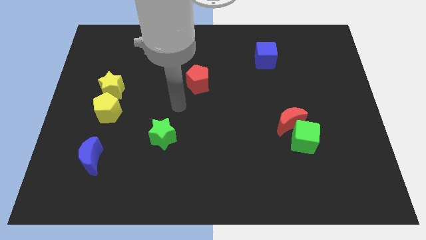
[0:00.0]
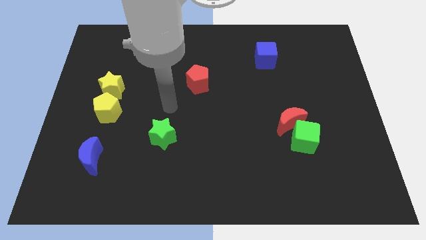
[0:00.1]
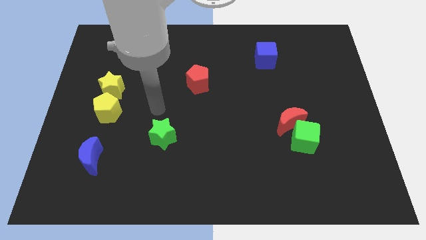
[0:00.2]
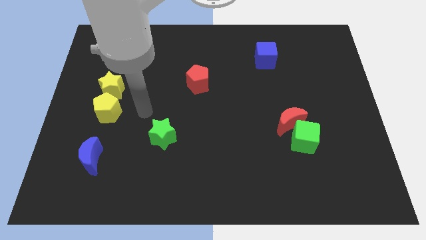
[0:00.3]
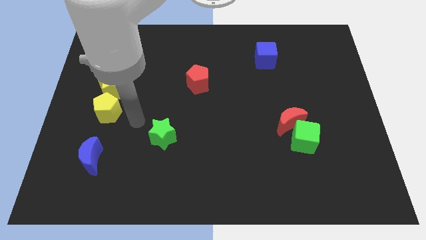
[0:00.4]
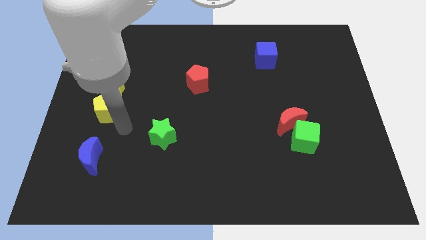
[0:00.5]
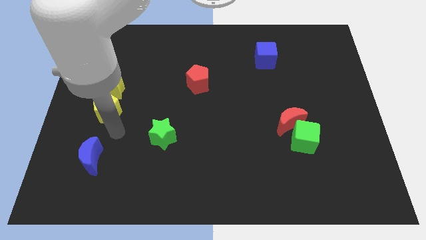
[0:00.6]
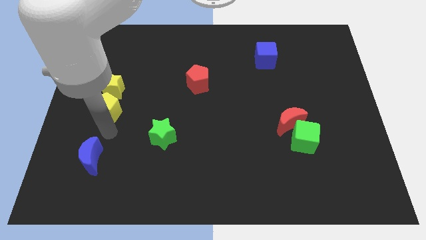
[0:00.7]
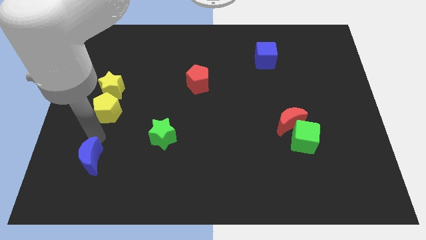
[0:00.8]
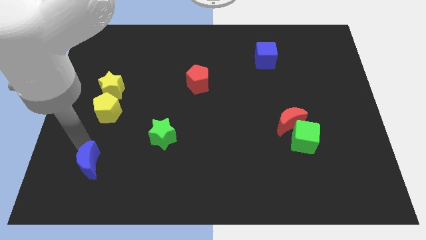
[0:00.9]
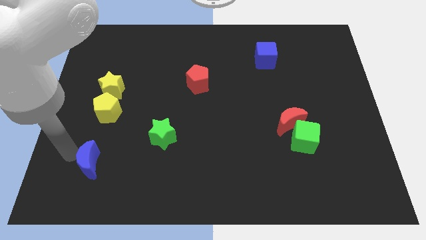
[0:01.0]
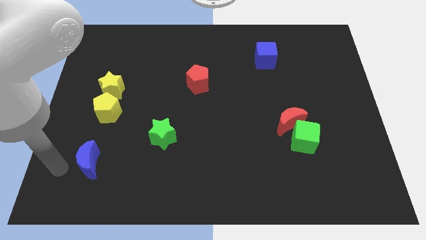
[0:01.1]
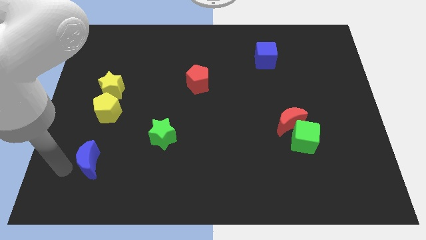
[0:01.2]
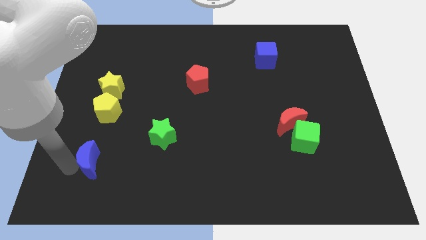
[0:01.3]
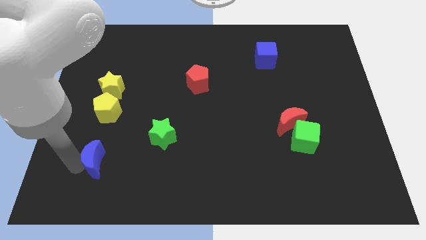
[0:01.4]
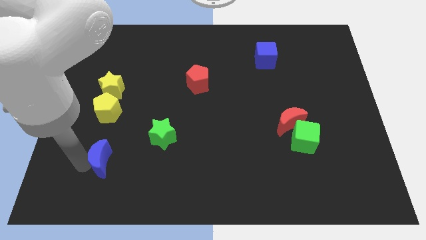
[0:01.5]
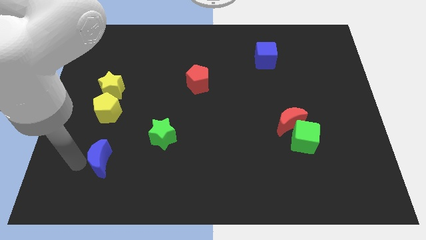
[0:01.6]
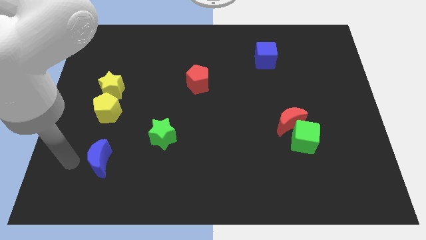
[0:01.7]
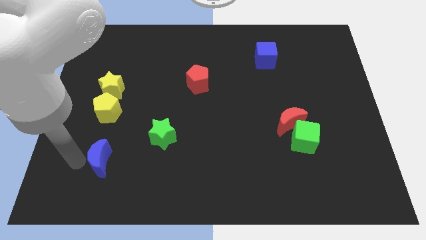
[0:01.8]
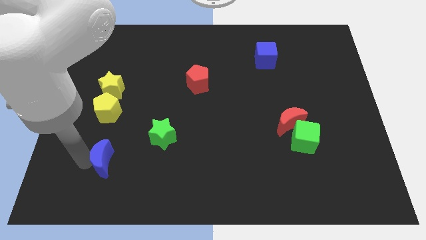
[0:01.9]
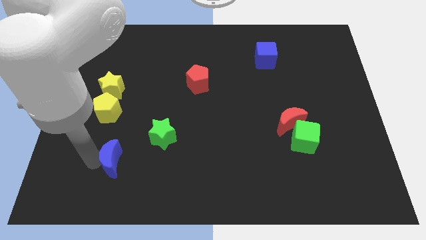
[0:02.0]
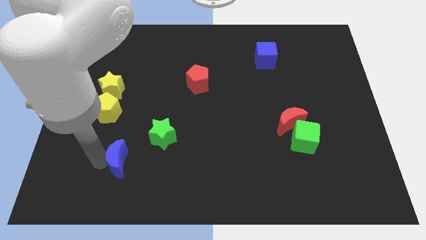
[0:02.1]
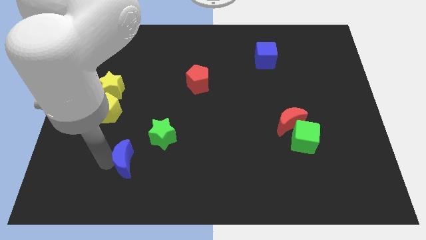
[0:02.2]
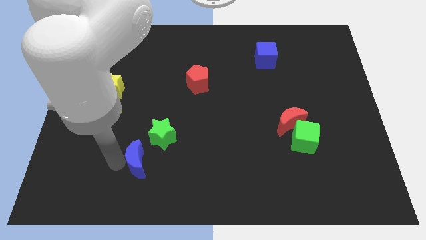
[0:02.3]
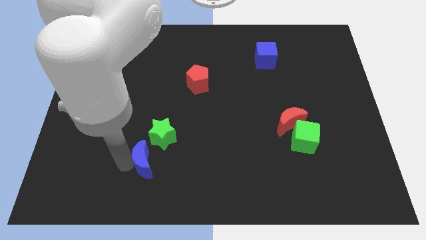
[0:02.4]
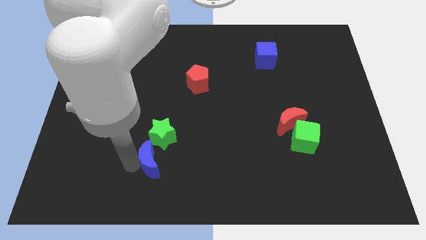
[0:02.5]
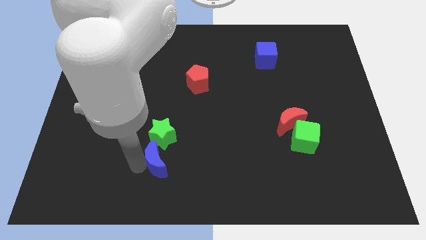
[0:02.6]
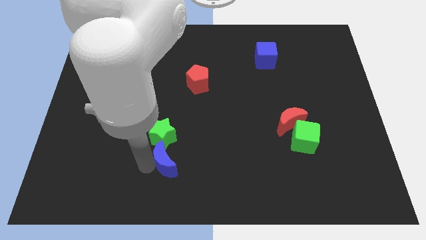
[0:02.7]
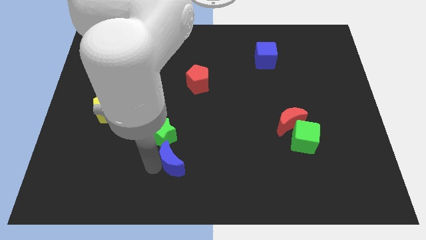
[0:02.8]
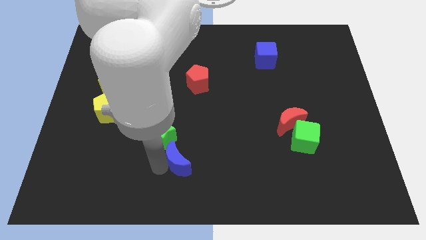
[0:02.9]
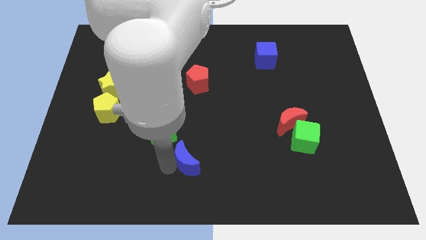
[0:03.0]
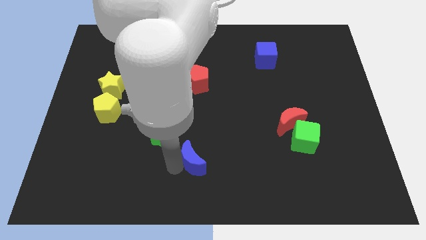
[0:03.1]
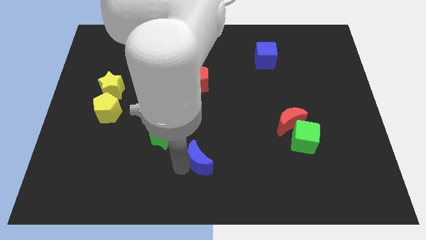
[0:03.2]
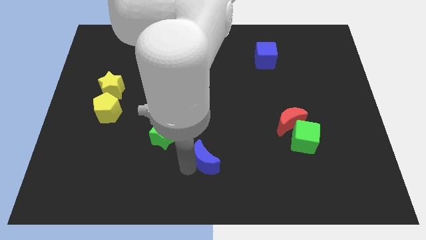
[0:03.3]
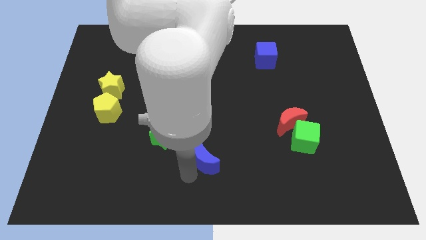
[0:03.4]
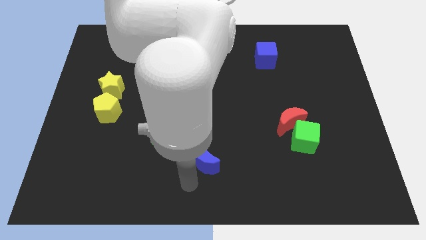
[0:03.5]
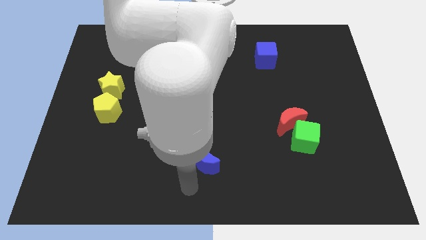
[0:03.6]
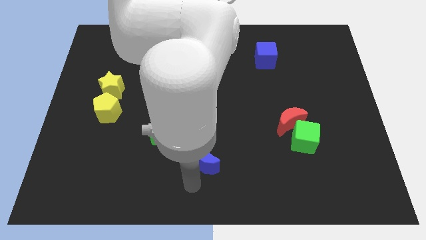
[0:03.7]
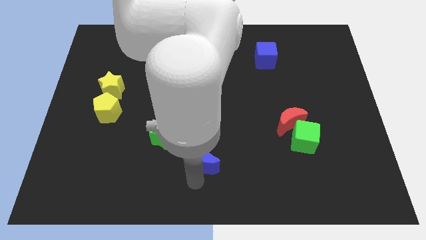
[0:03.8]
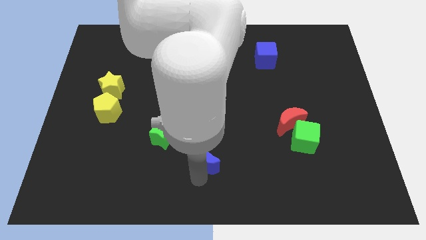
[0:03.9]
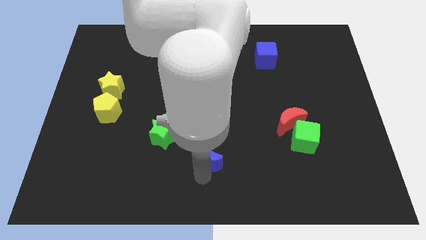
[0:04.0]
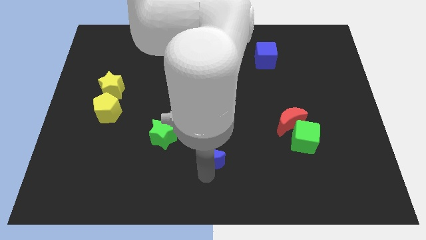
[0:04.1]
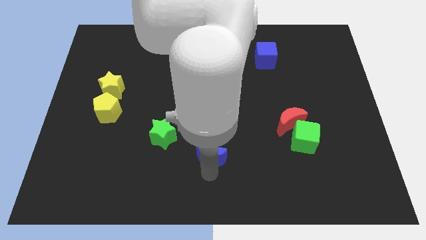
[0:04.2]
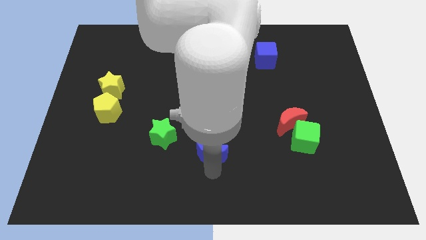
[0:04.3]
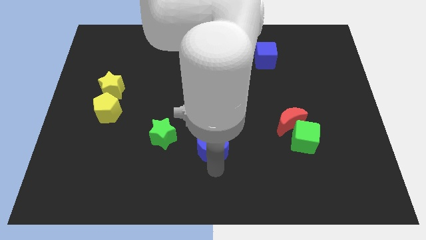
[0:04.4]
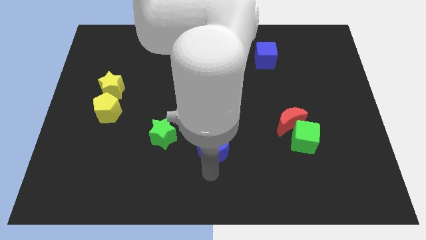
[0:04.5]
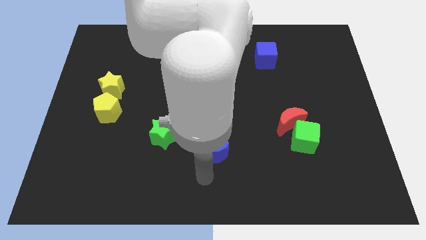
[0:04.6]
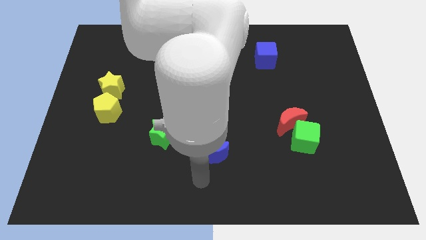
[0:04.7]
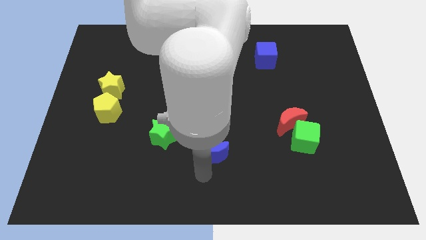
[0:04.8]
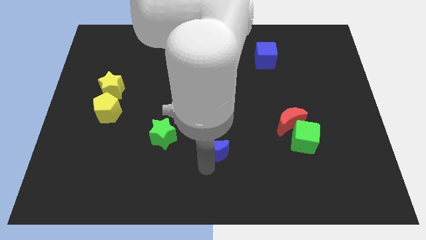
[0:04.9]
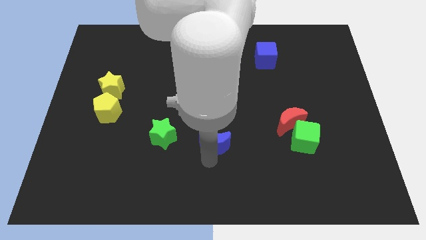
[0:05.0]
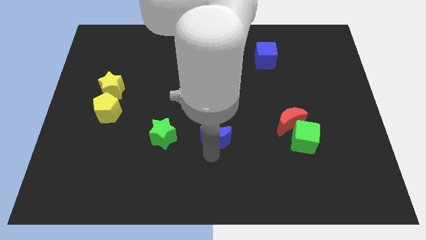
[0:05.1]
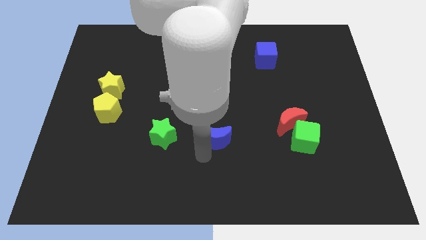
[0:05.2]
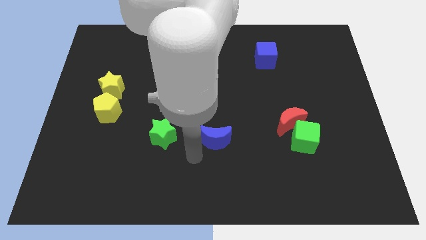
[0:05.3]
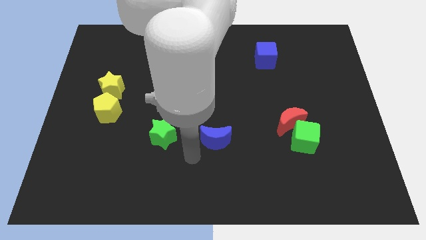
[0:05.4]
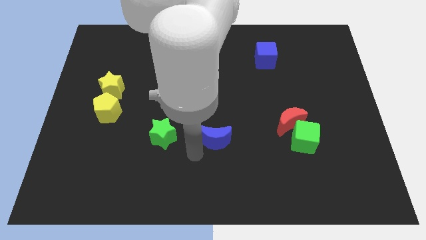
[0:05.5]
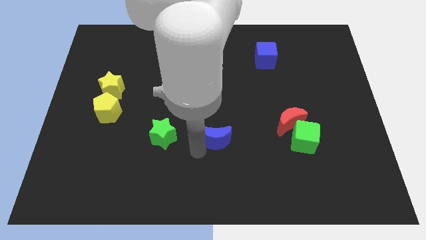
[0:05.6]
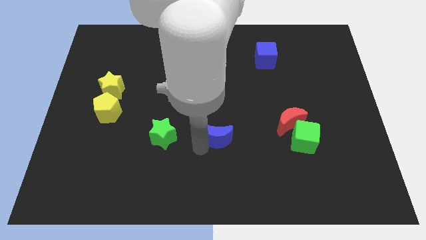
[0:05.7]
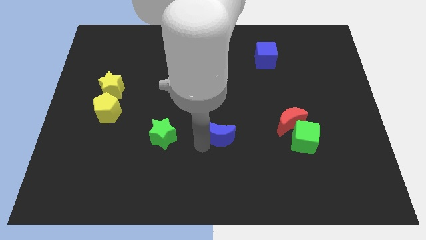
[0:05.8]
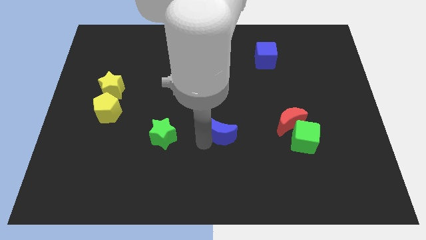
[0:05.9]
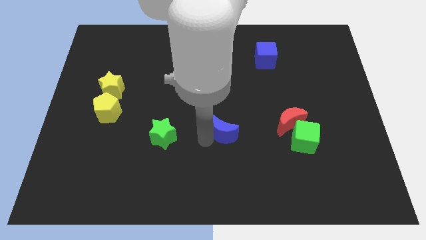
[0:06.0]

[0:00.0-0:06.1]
push the blue moon to the left of the red moon

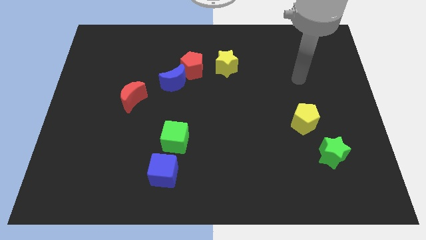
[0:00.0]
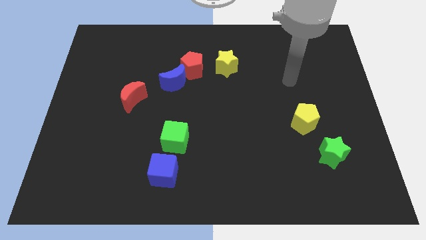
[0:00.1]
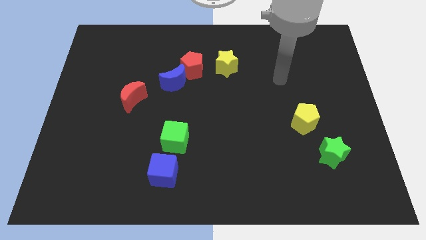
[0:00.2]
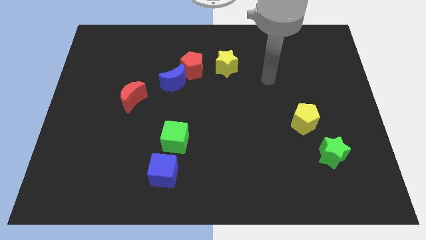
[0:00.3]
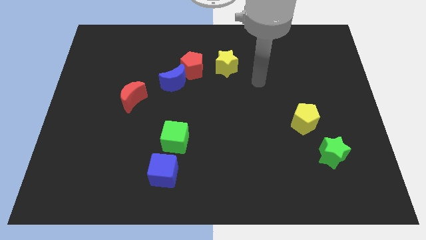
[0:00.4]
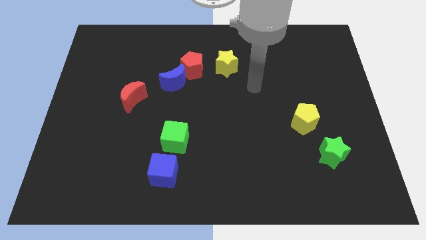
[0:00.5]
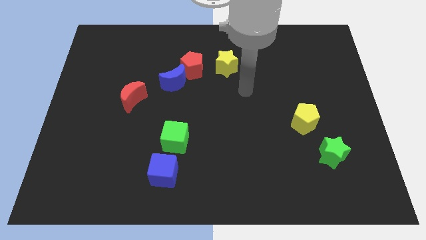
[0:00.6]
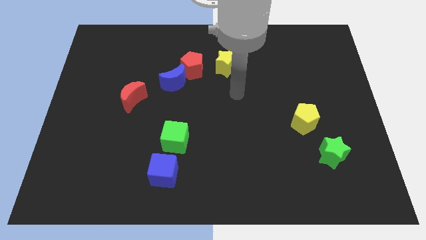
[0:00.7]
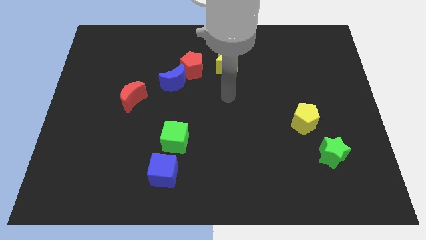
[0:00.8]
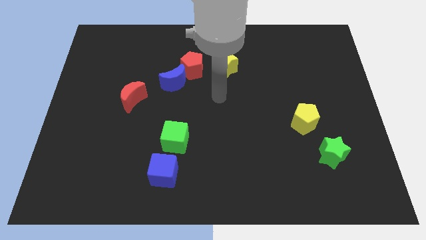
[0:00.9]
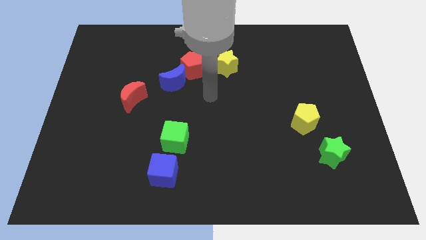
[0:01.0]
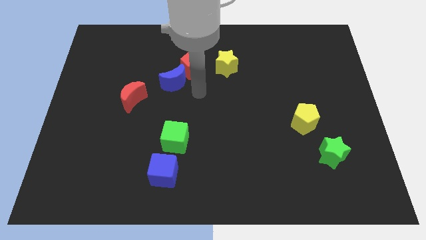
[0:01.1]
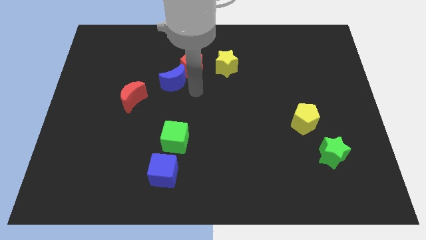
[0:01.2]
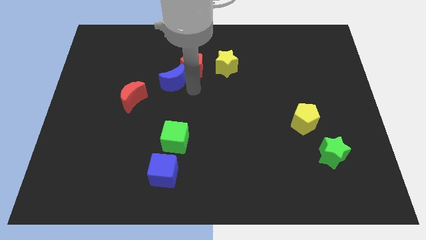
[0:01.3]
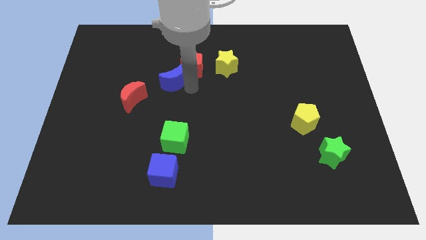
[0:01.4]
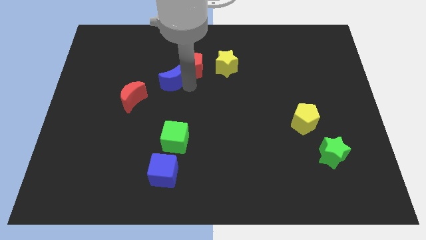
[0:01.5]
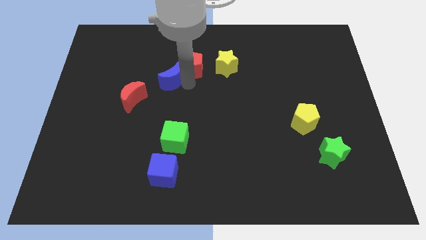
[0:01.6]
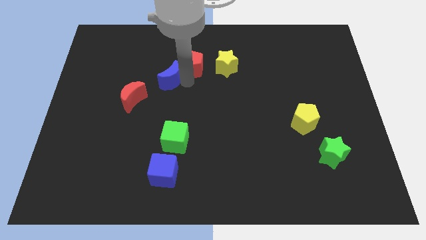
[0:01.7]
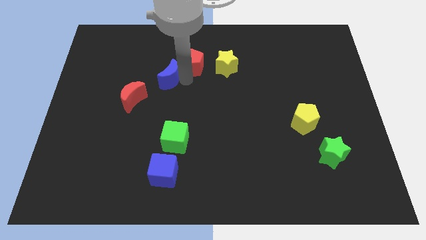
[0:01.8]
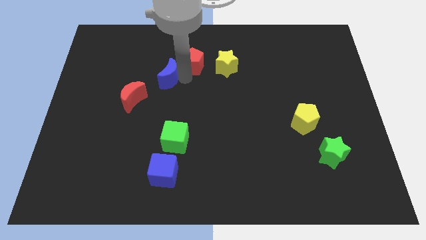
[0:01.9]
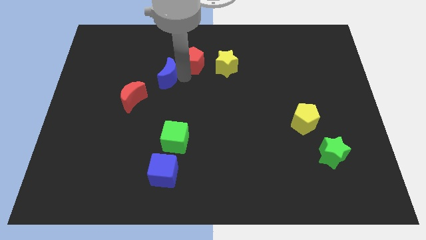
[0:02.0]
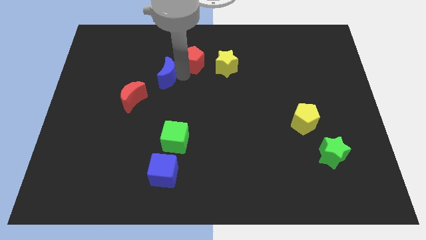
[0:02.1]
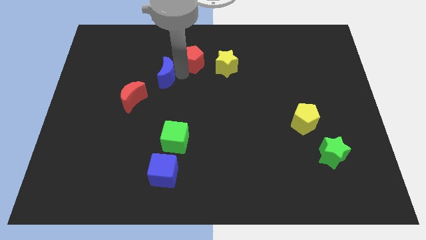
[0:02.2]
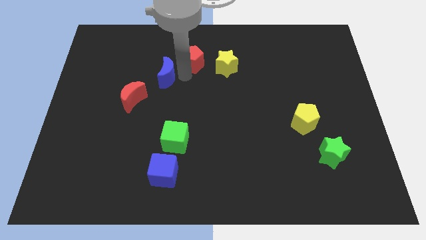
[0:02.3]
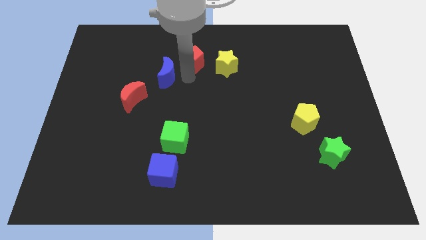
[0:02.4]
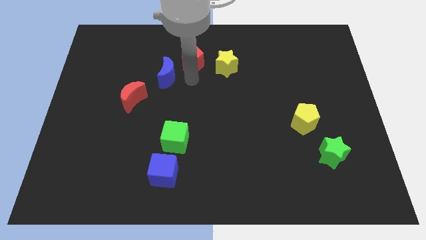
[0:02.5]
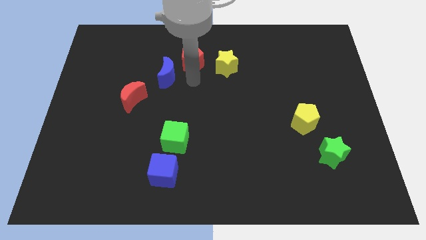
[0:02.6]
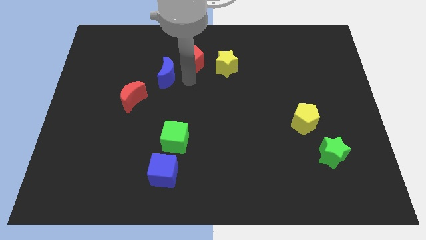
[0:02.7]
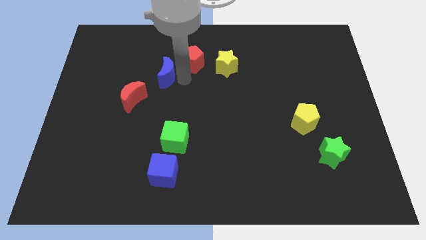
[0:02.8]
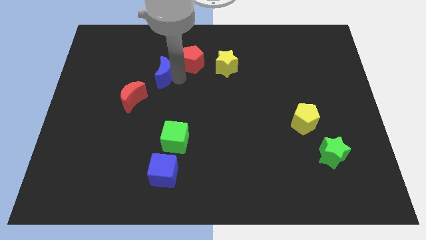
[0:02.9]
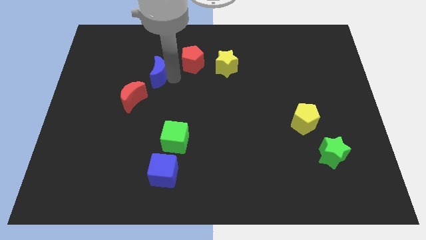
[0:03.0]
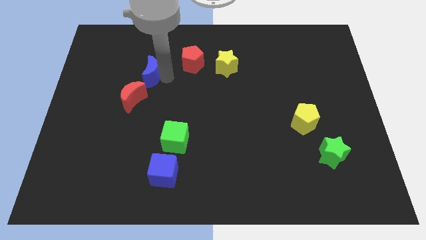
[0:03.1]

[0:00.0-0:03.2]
slide the blue moon to the top of the red moon
